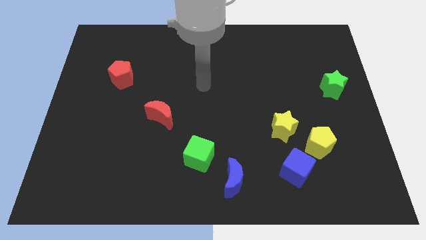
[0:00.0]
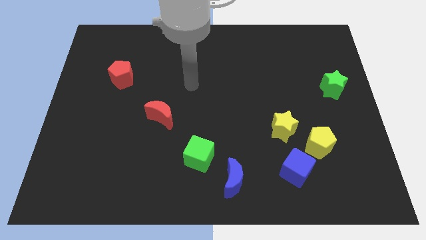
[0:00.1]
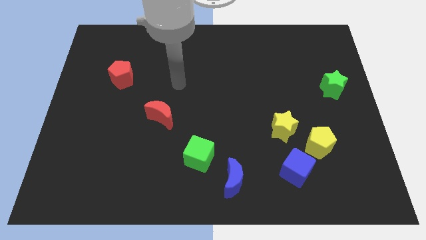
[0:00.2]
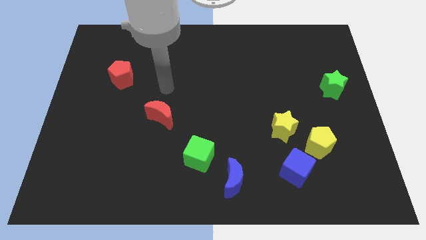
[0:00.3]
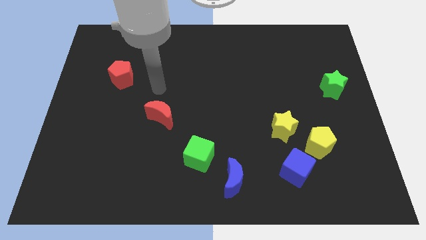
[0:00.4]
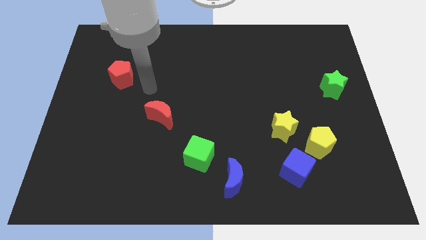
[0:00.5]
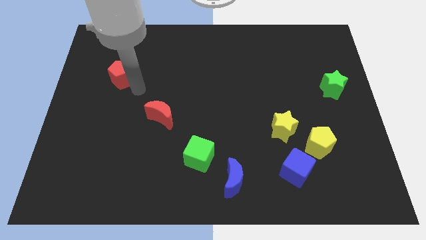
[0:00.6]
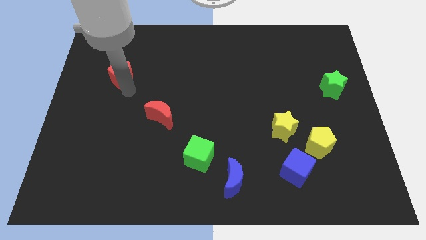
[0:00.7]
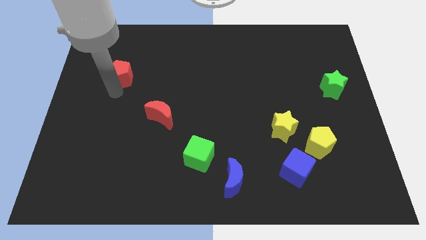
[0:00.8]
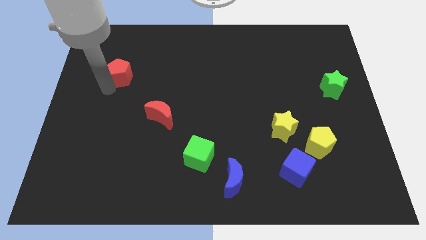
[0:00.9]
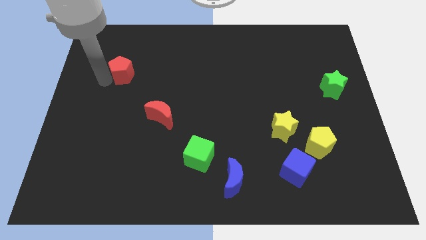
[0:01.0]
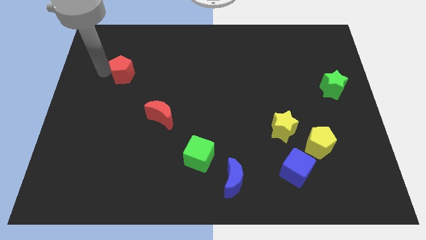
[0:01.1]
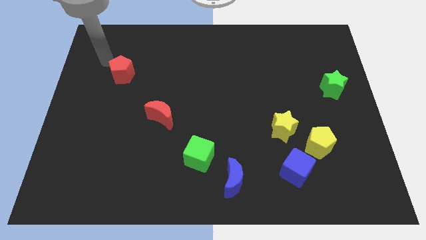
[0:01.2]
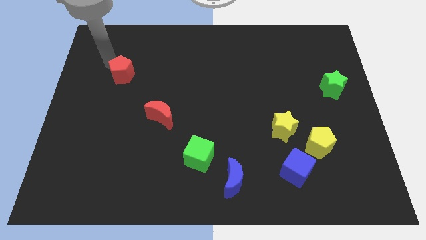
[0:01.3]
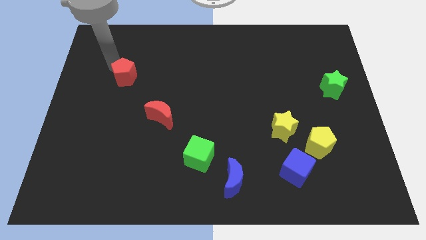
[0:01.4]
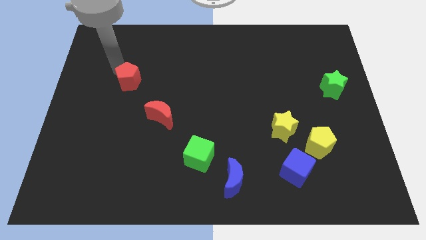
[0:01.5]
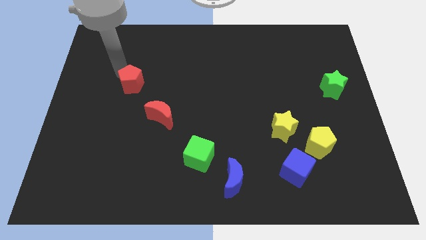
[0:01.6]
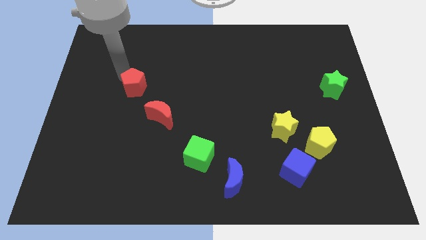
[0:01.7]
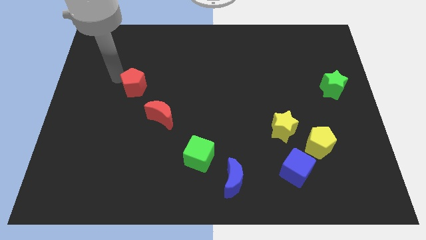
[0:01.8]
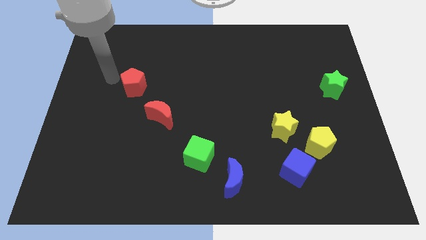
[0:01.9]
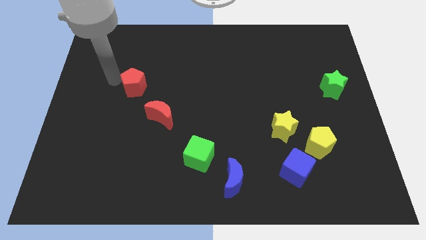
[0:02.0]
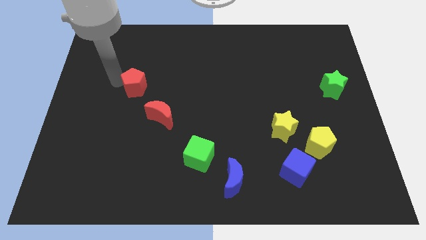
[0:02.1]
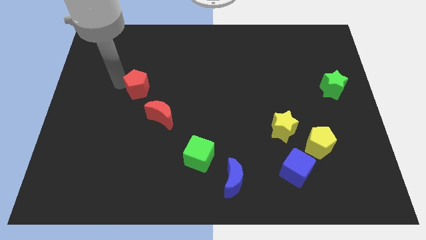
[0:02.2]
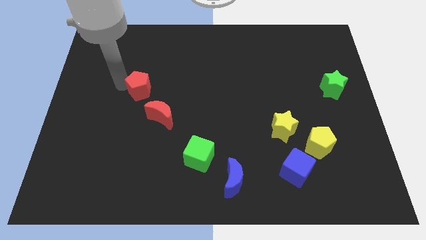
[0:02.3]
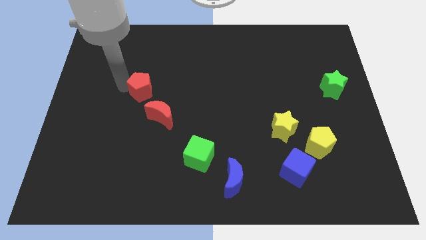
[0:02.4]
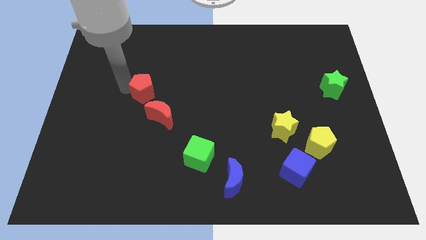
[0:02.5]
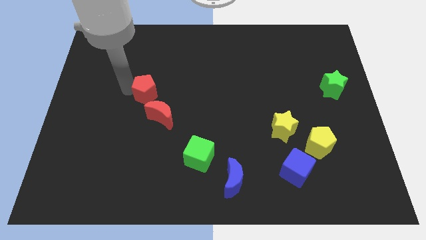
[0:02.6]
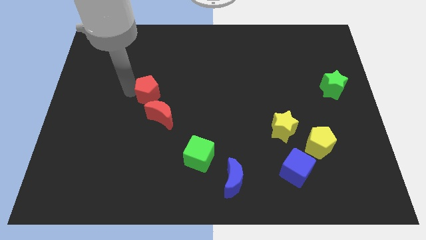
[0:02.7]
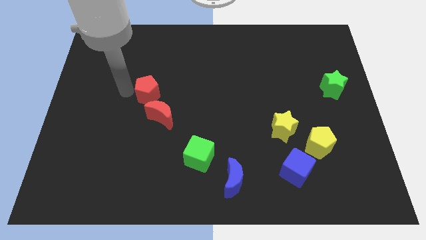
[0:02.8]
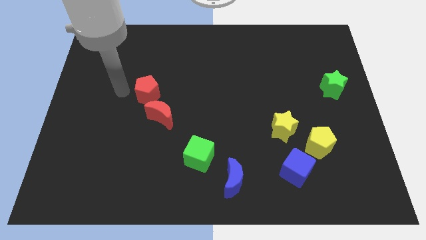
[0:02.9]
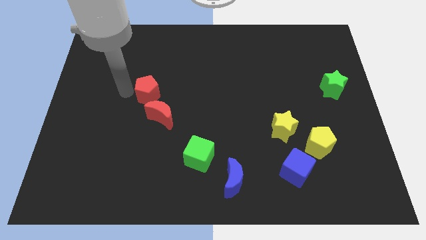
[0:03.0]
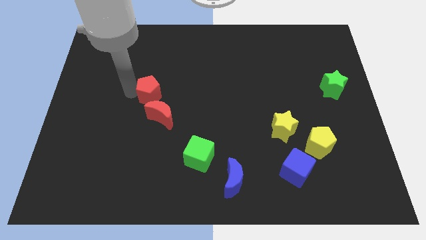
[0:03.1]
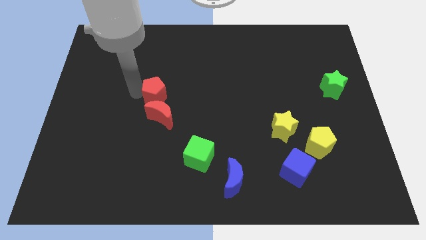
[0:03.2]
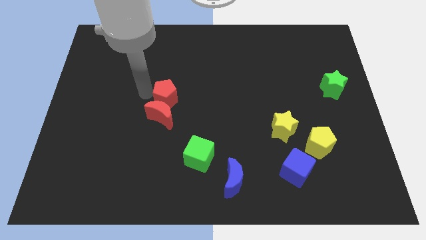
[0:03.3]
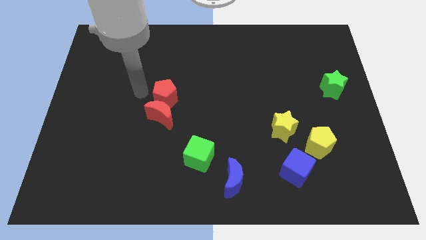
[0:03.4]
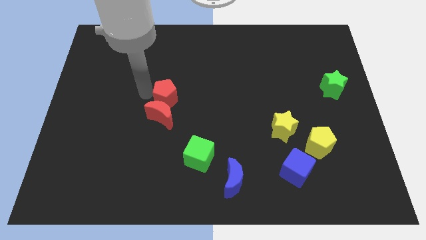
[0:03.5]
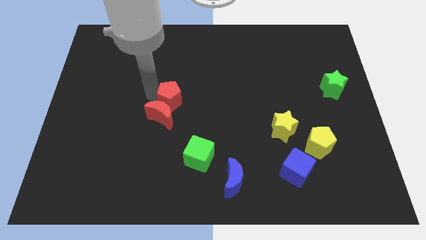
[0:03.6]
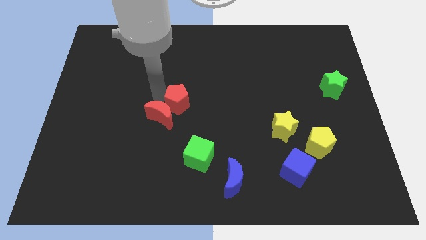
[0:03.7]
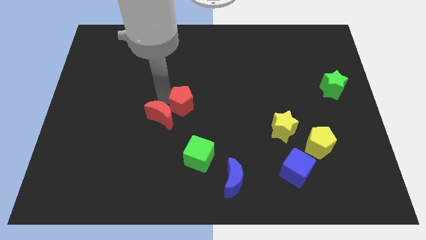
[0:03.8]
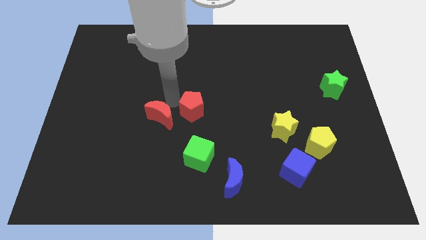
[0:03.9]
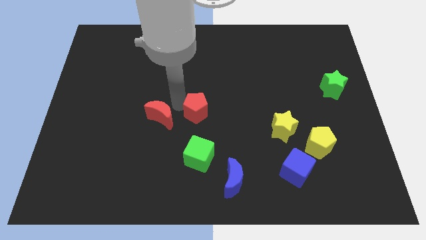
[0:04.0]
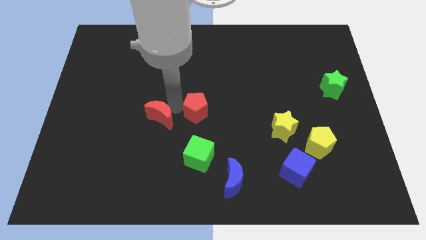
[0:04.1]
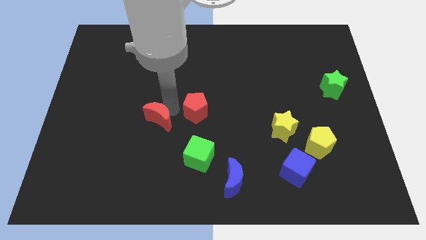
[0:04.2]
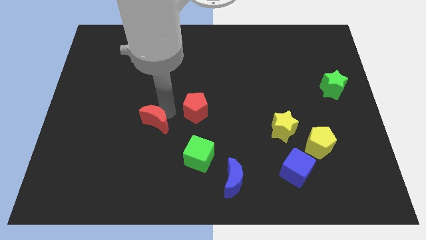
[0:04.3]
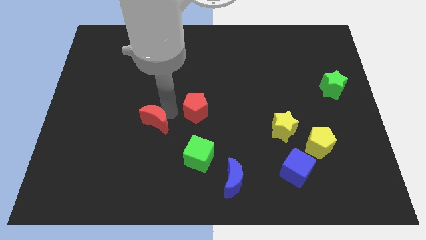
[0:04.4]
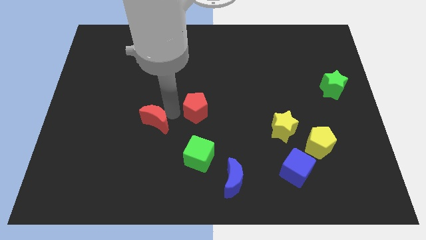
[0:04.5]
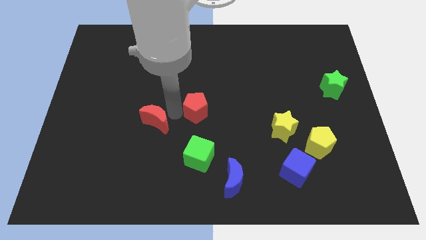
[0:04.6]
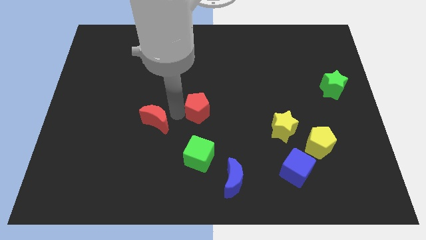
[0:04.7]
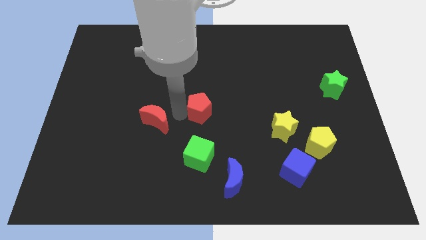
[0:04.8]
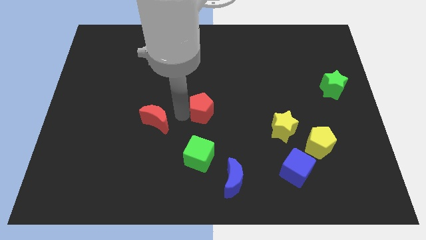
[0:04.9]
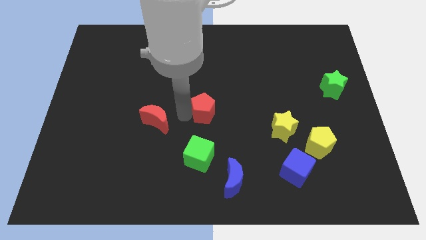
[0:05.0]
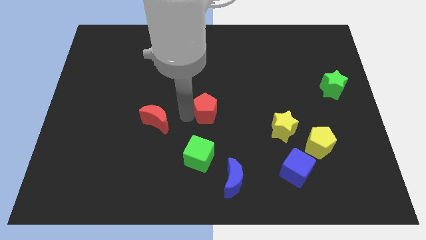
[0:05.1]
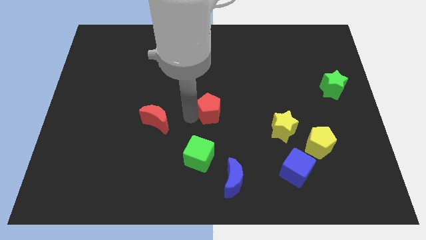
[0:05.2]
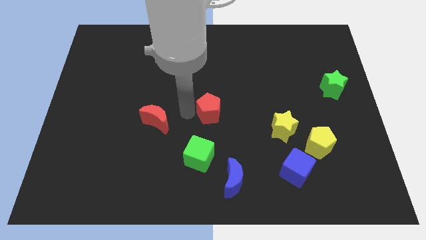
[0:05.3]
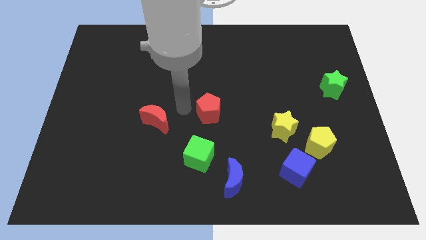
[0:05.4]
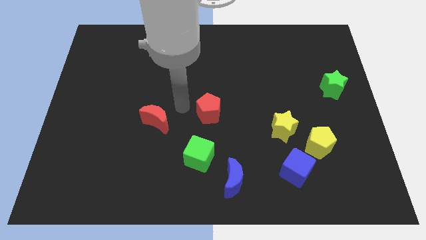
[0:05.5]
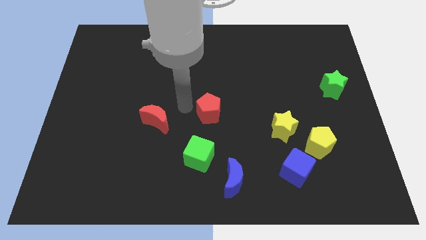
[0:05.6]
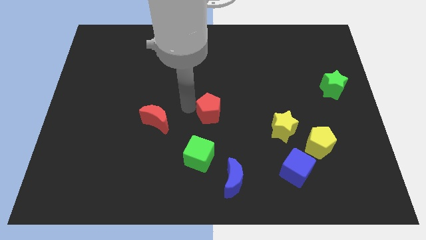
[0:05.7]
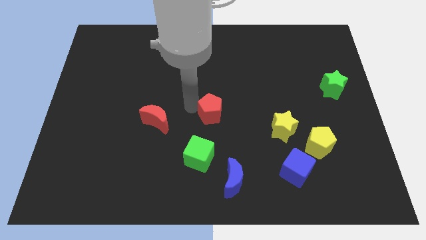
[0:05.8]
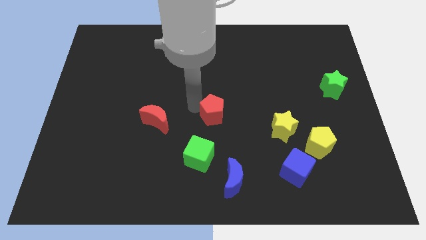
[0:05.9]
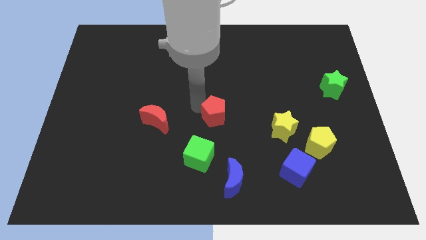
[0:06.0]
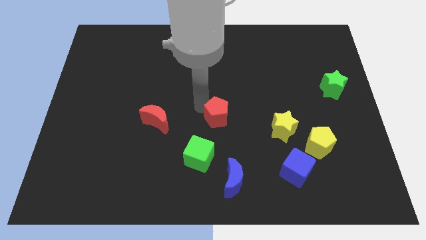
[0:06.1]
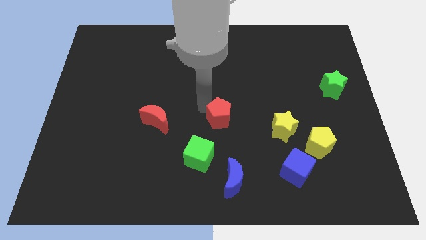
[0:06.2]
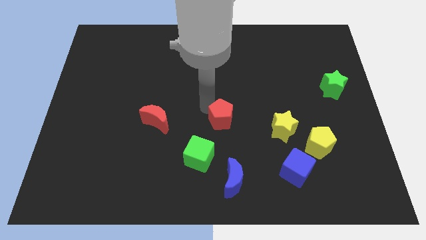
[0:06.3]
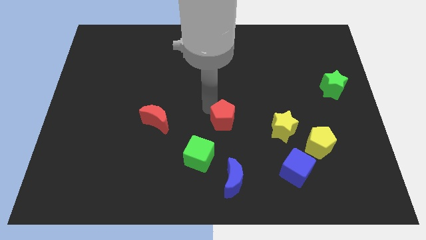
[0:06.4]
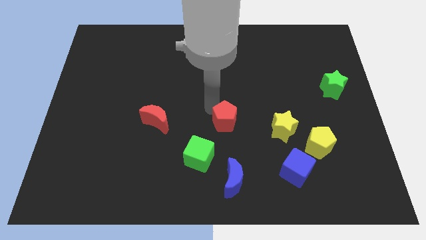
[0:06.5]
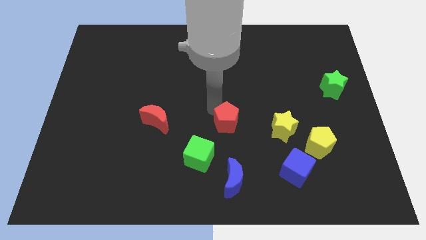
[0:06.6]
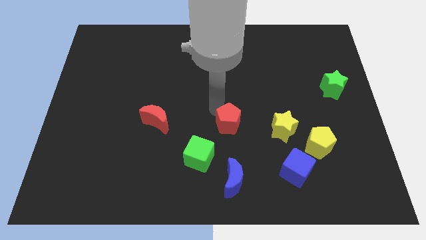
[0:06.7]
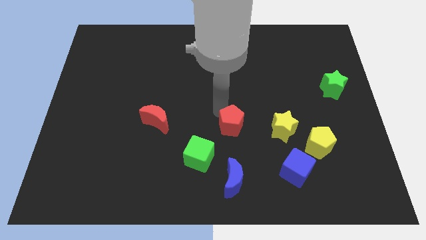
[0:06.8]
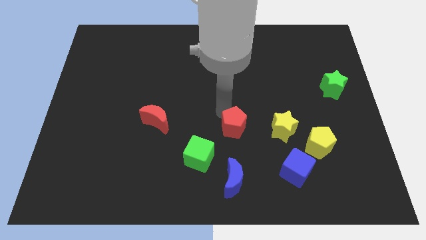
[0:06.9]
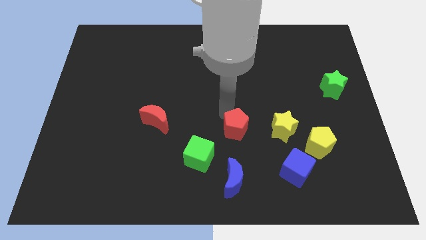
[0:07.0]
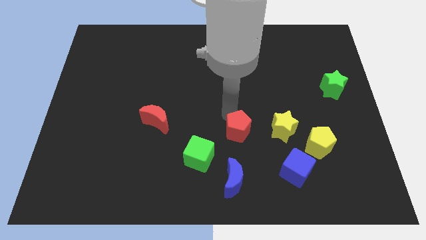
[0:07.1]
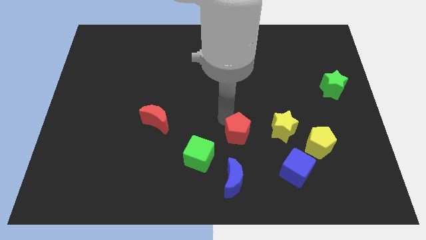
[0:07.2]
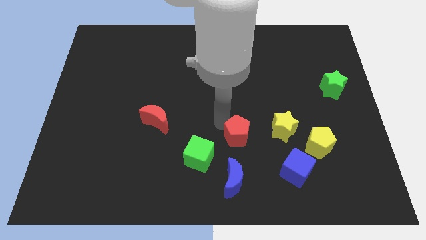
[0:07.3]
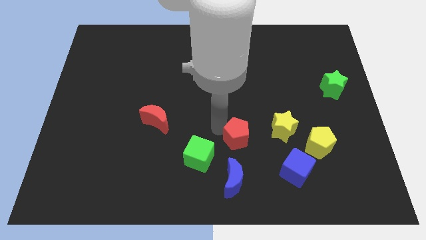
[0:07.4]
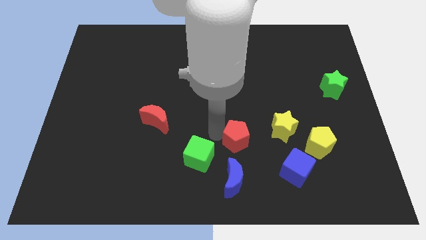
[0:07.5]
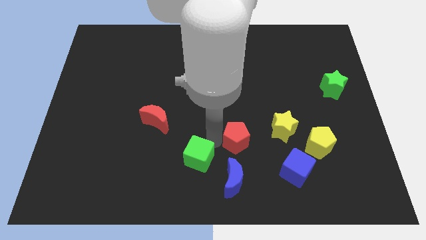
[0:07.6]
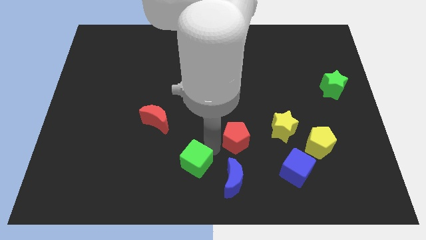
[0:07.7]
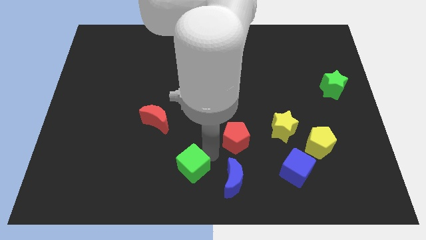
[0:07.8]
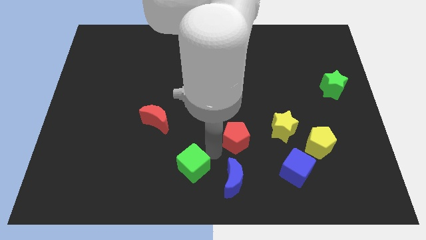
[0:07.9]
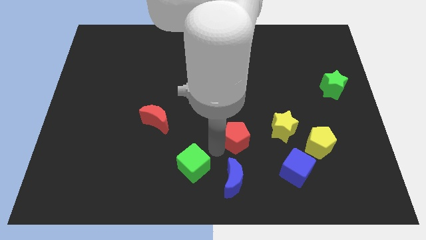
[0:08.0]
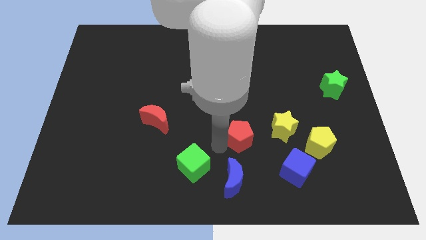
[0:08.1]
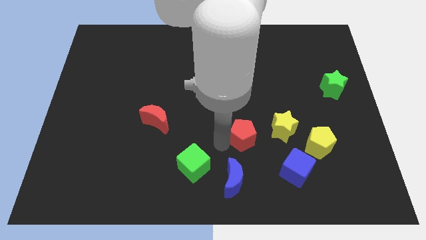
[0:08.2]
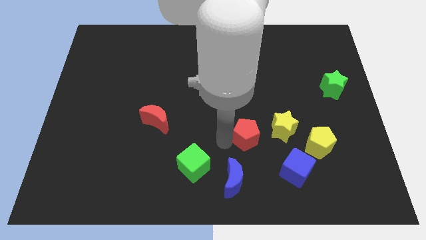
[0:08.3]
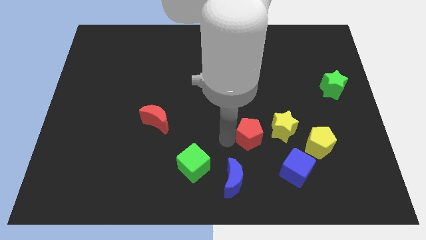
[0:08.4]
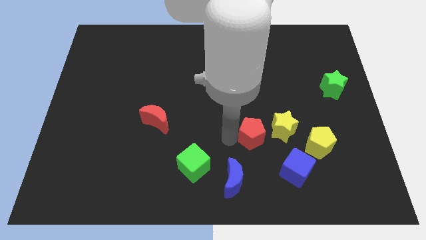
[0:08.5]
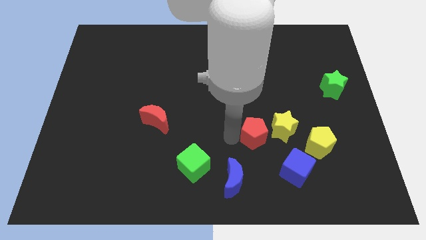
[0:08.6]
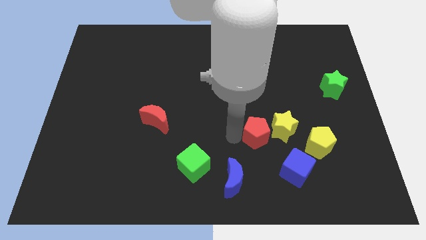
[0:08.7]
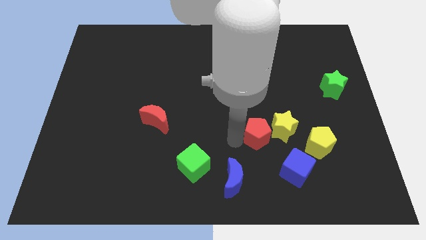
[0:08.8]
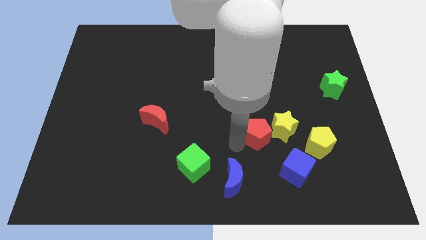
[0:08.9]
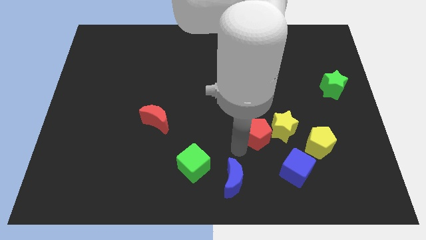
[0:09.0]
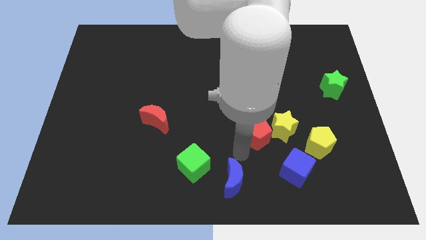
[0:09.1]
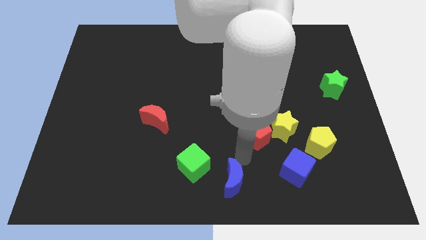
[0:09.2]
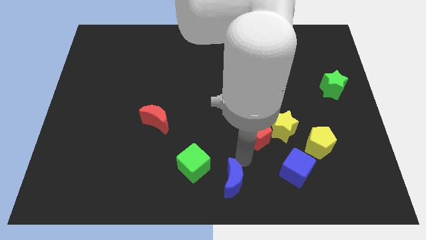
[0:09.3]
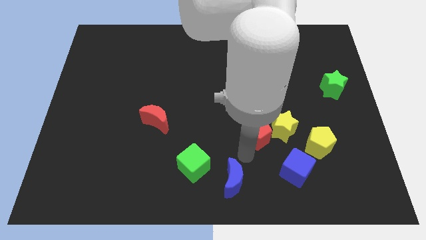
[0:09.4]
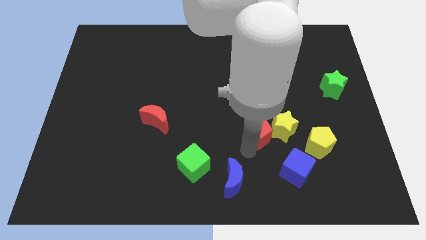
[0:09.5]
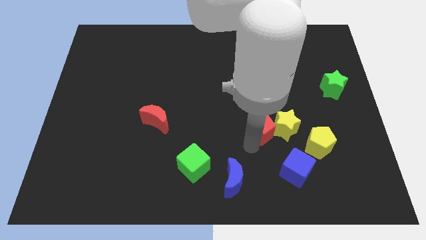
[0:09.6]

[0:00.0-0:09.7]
slide the red pentagon close to the yellow star
